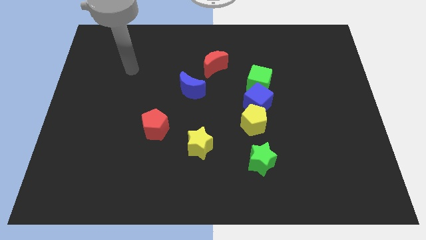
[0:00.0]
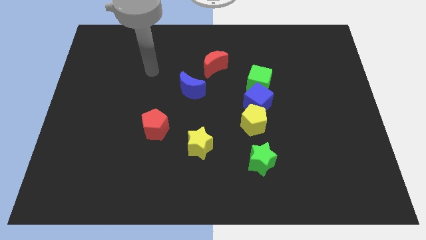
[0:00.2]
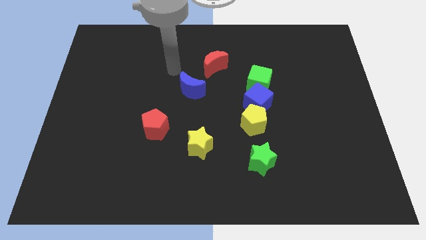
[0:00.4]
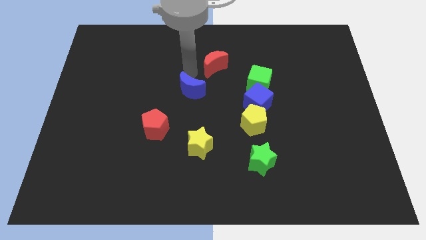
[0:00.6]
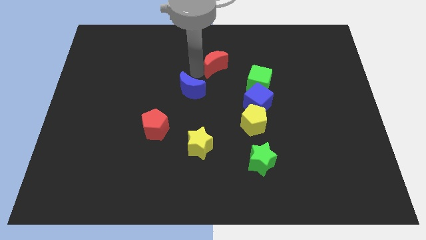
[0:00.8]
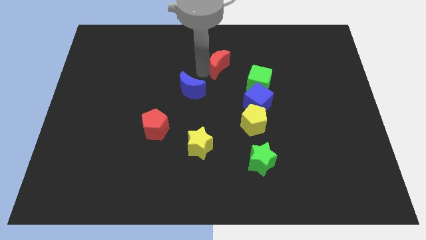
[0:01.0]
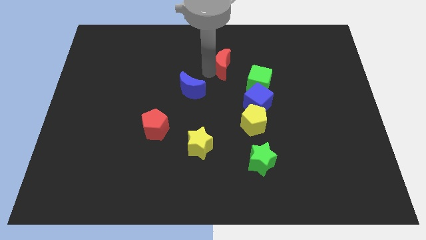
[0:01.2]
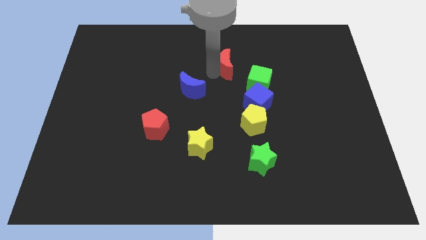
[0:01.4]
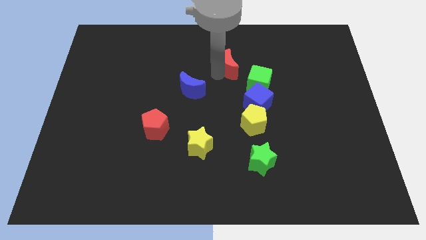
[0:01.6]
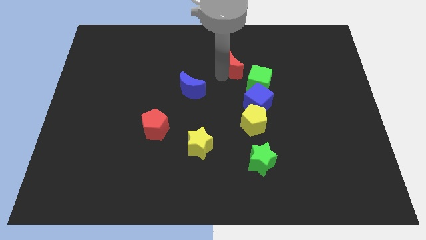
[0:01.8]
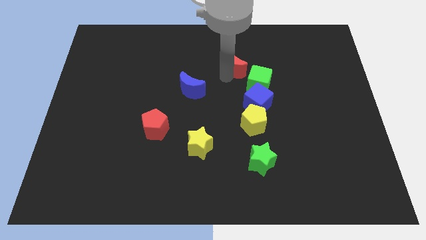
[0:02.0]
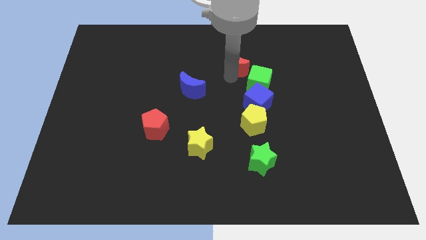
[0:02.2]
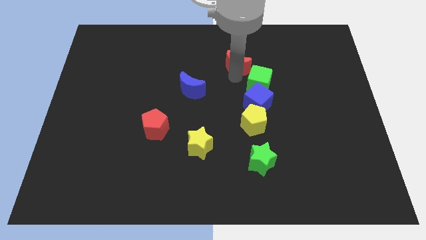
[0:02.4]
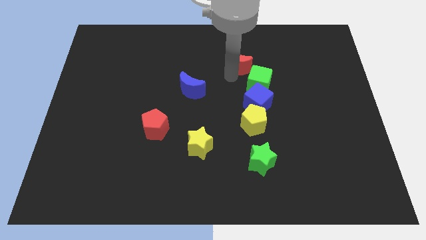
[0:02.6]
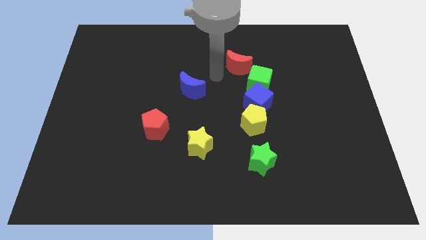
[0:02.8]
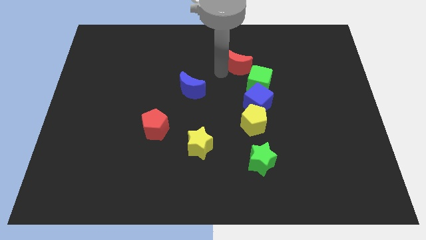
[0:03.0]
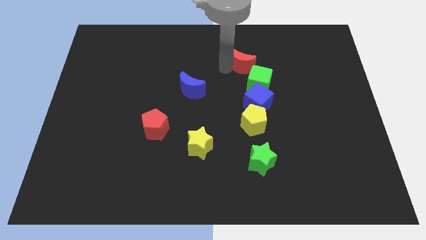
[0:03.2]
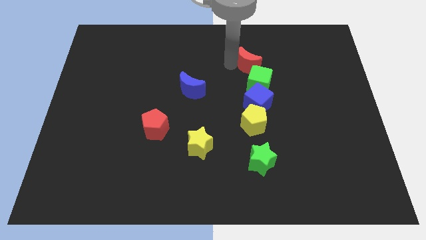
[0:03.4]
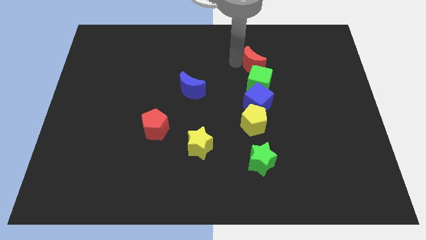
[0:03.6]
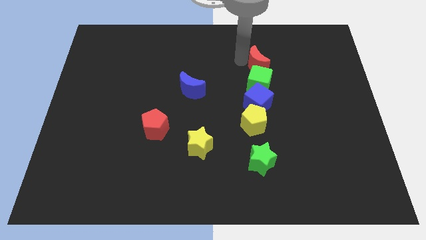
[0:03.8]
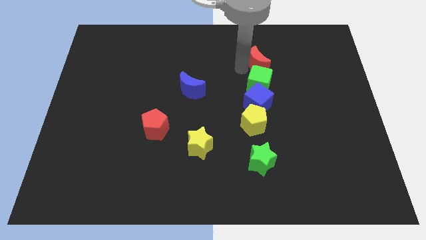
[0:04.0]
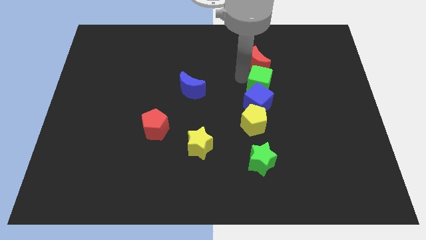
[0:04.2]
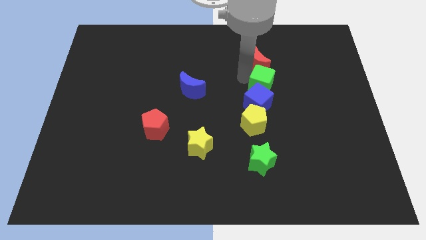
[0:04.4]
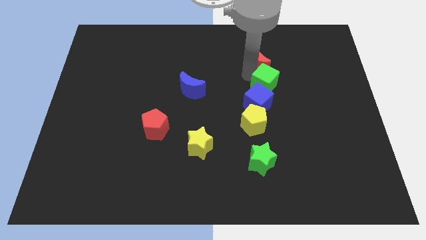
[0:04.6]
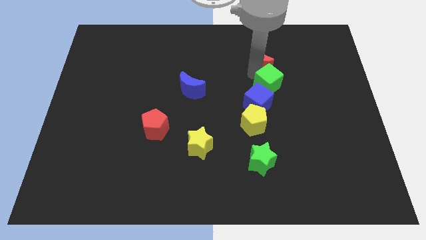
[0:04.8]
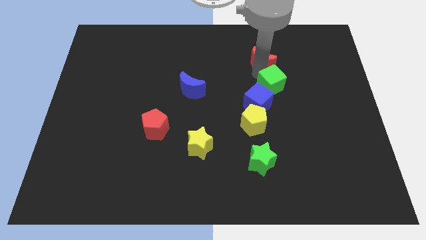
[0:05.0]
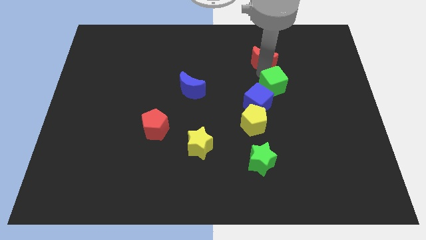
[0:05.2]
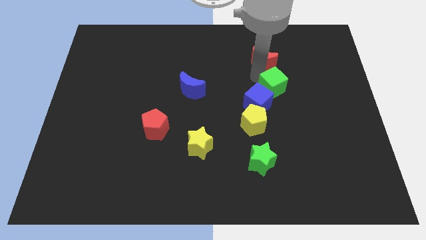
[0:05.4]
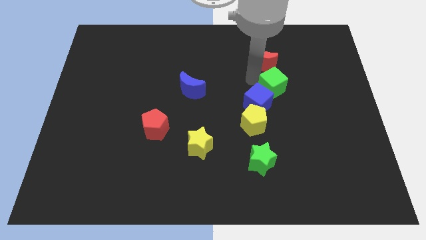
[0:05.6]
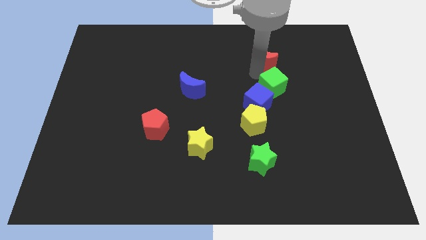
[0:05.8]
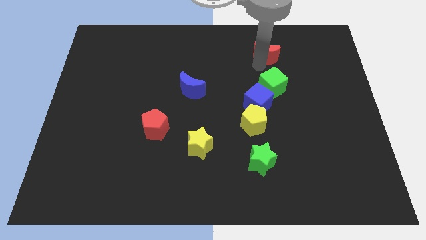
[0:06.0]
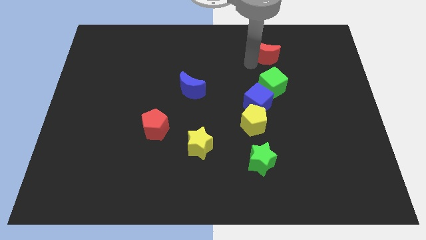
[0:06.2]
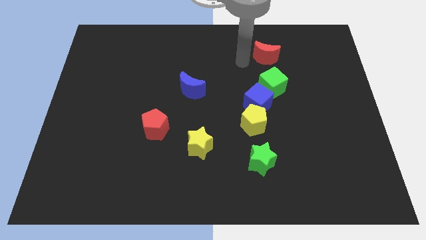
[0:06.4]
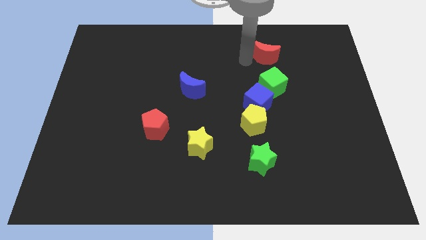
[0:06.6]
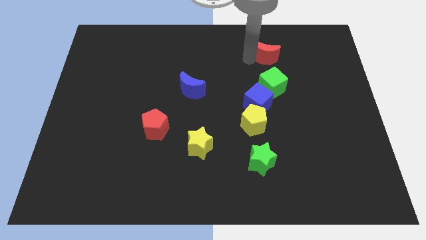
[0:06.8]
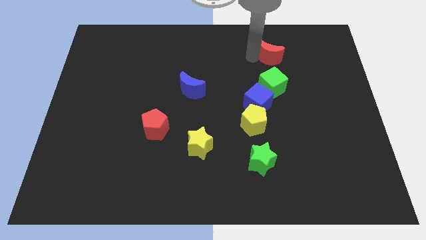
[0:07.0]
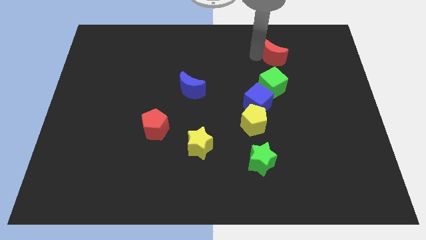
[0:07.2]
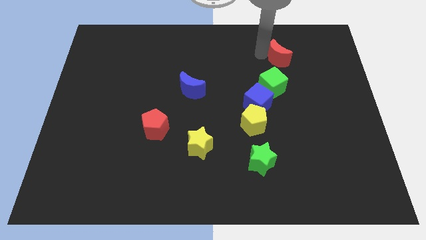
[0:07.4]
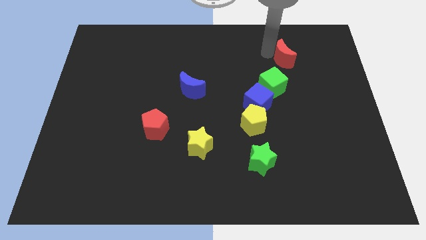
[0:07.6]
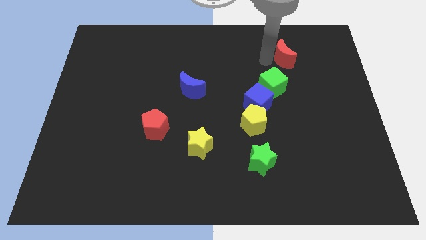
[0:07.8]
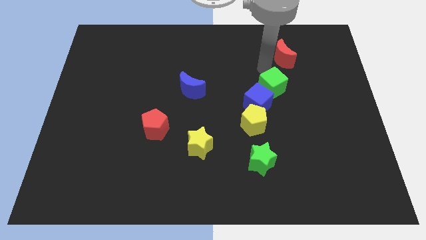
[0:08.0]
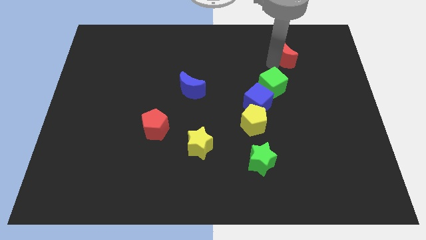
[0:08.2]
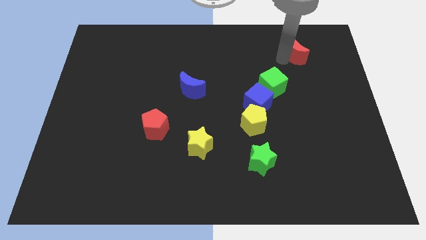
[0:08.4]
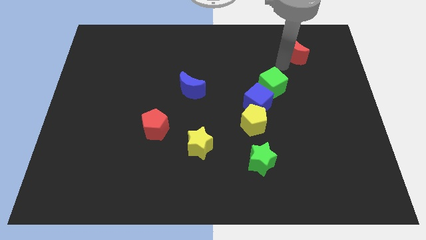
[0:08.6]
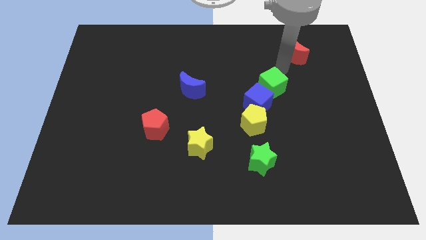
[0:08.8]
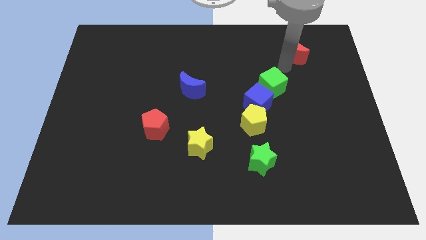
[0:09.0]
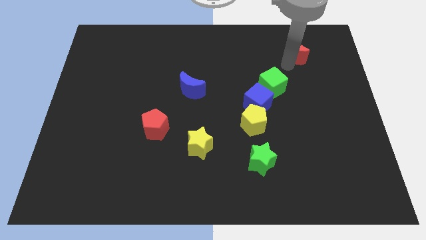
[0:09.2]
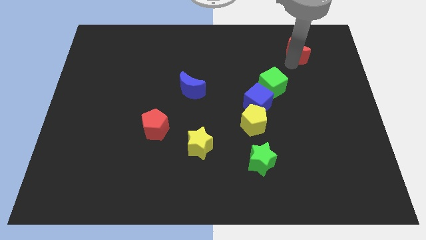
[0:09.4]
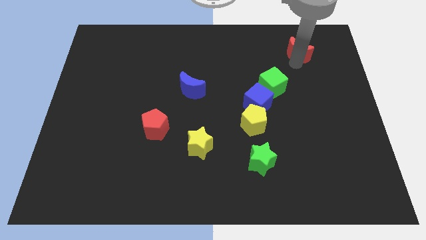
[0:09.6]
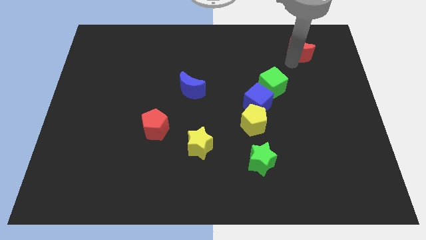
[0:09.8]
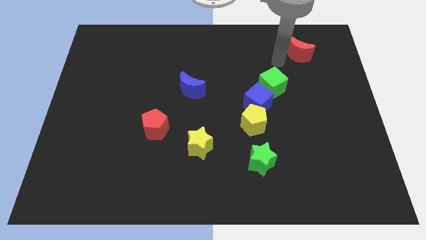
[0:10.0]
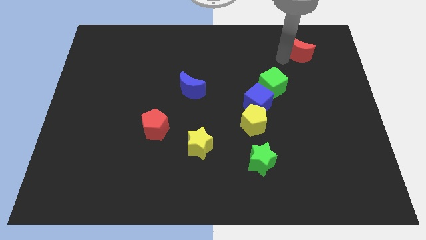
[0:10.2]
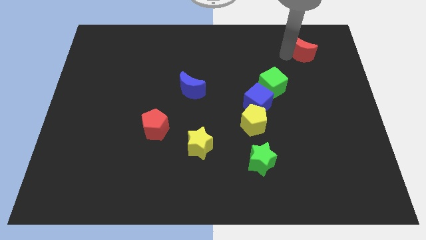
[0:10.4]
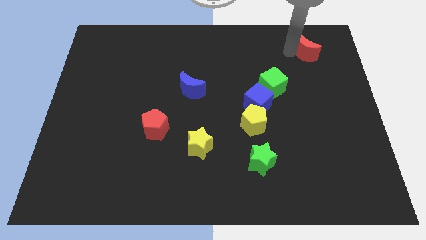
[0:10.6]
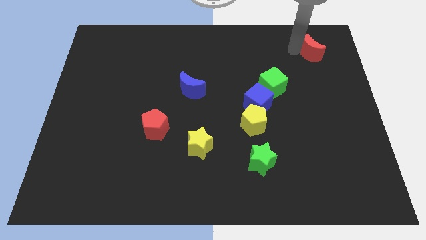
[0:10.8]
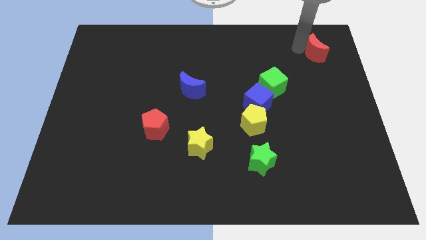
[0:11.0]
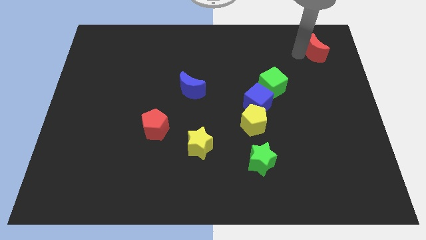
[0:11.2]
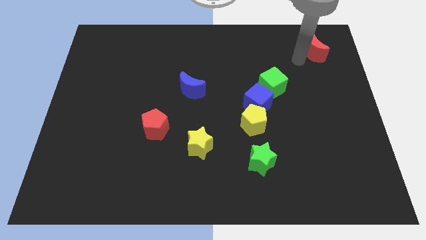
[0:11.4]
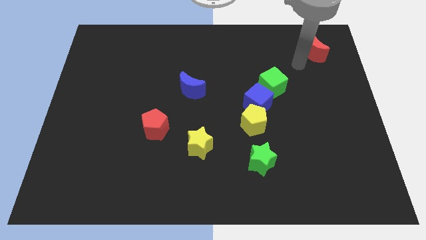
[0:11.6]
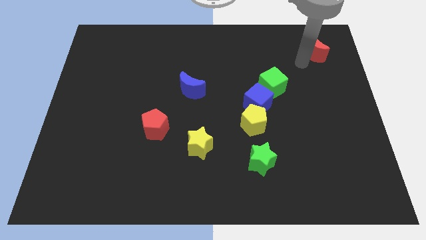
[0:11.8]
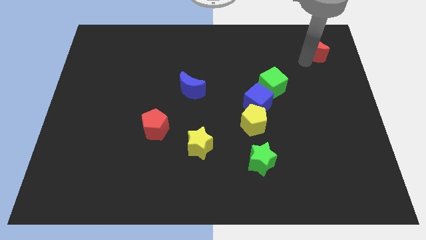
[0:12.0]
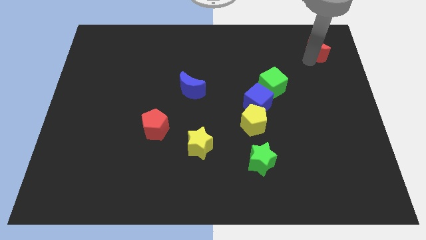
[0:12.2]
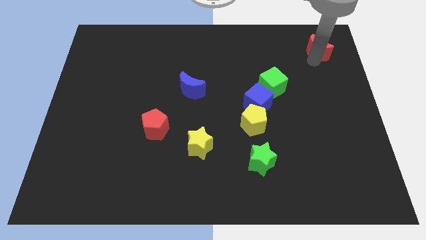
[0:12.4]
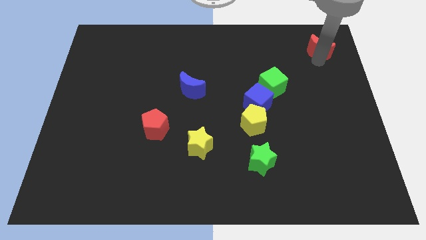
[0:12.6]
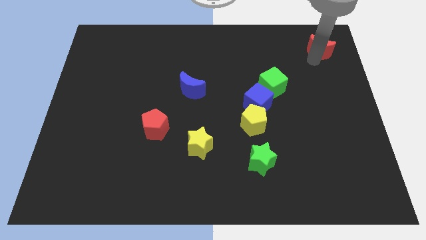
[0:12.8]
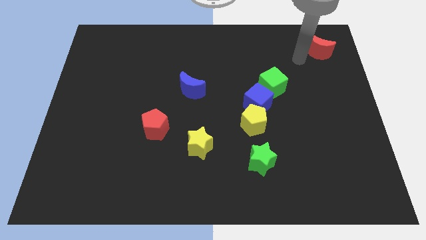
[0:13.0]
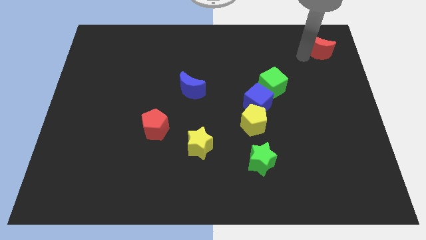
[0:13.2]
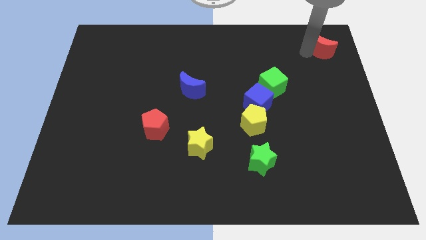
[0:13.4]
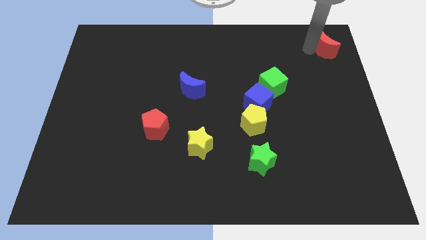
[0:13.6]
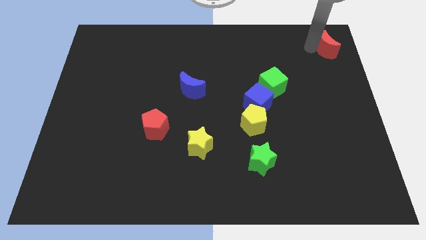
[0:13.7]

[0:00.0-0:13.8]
slide the red moon to the top right
